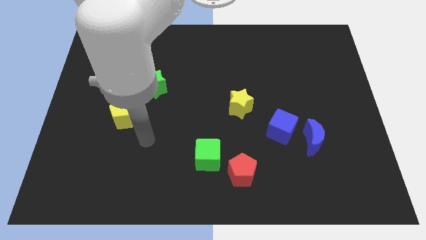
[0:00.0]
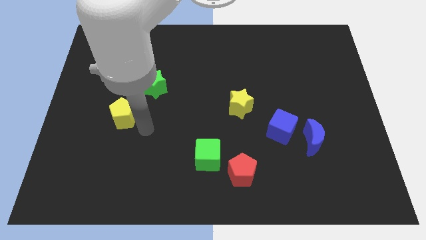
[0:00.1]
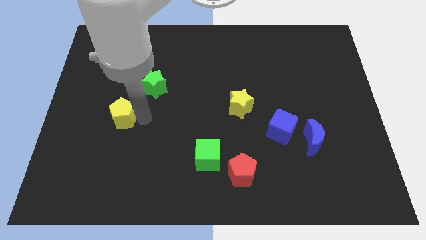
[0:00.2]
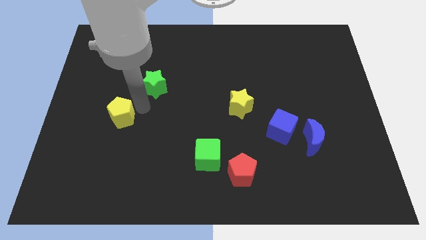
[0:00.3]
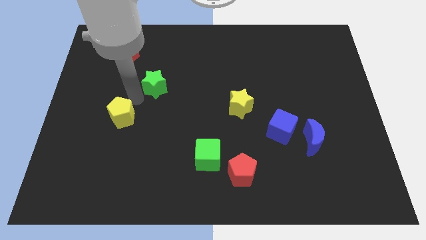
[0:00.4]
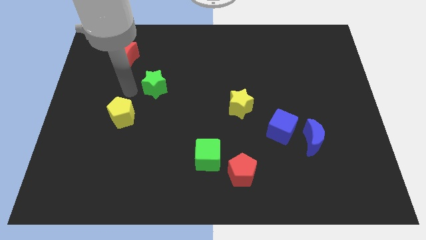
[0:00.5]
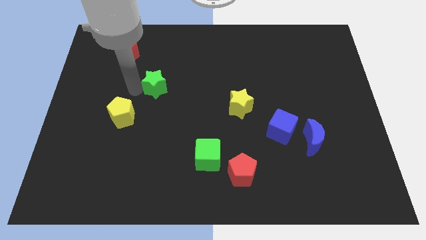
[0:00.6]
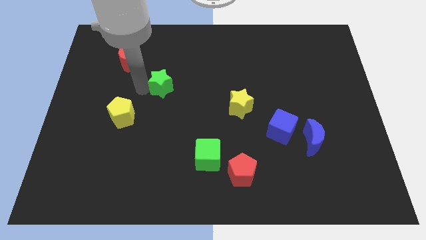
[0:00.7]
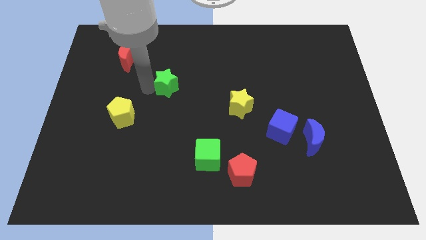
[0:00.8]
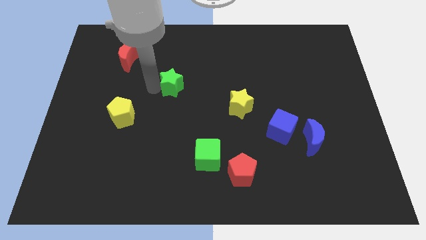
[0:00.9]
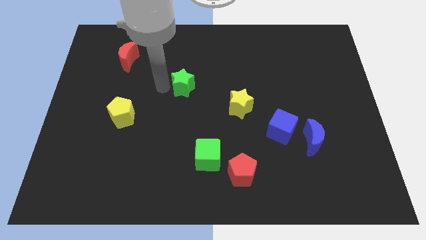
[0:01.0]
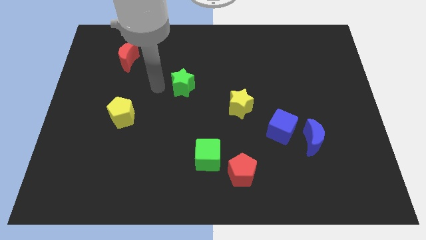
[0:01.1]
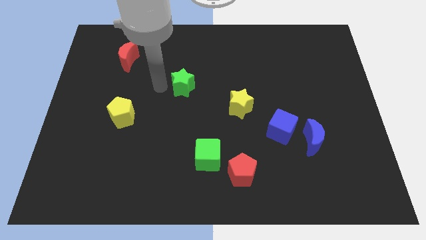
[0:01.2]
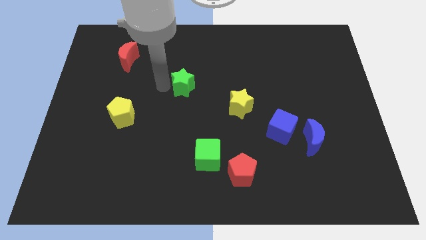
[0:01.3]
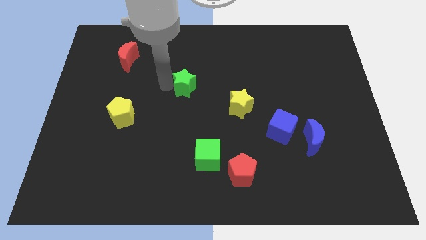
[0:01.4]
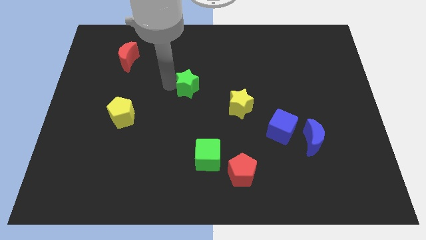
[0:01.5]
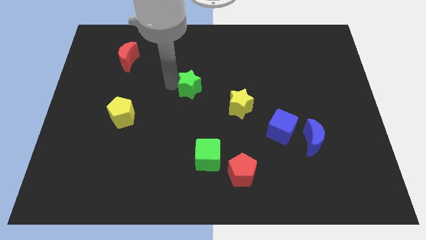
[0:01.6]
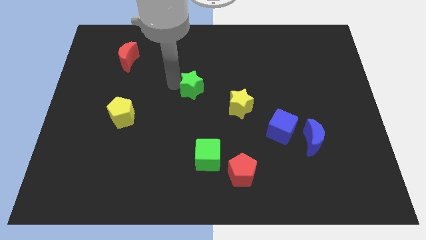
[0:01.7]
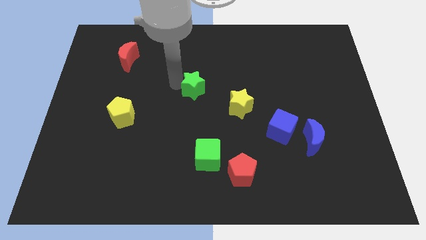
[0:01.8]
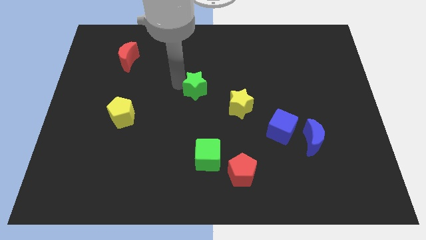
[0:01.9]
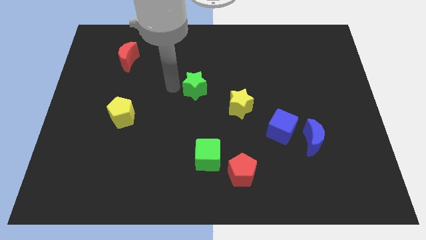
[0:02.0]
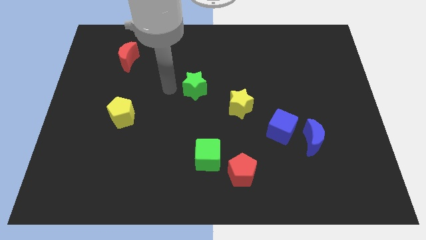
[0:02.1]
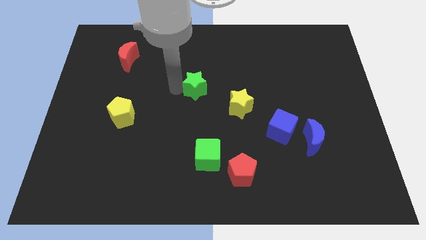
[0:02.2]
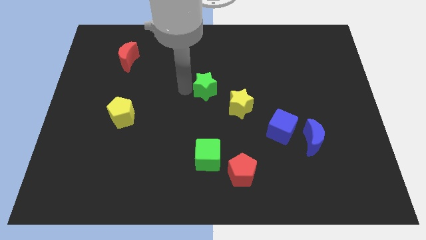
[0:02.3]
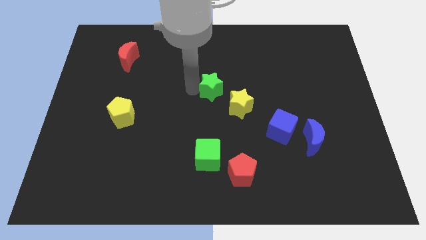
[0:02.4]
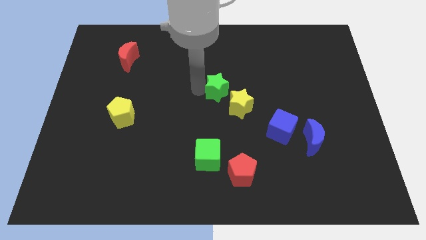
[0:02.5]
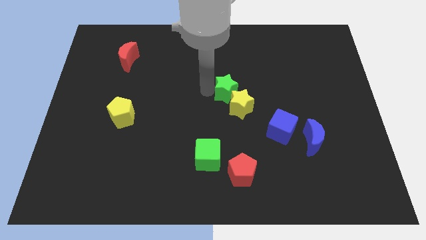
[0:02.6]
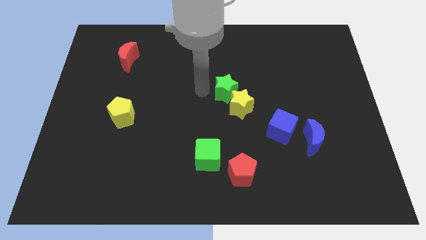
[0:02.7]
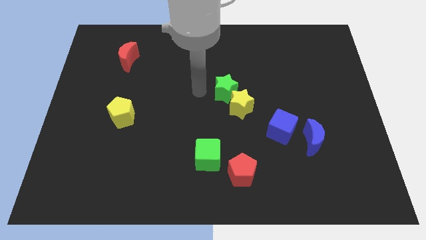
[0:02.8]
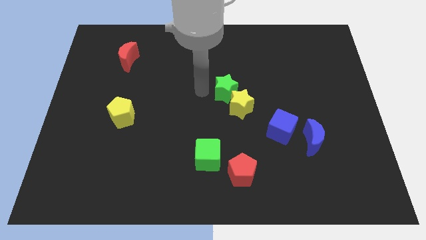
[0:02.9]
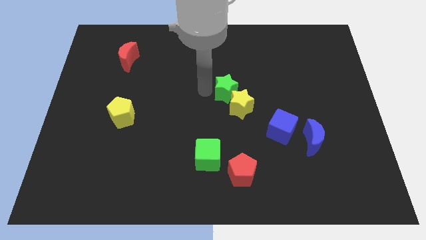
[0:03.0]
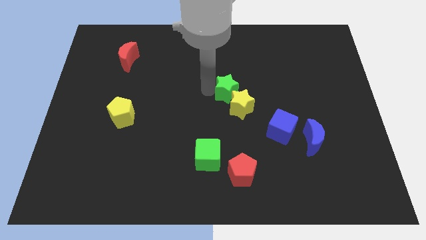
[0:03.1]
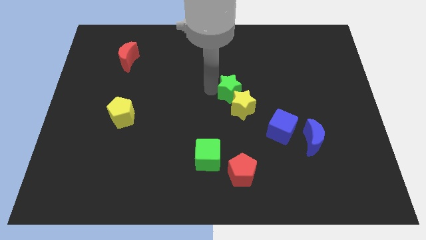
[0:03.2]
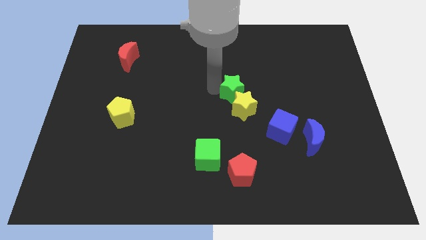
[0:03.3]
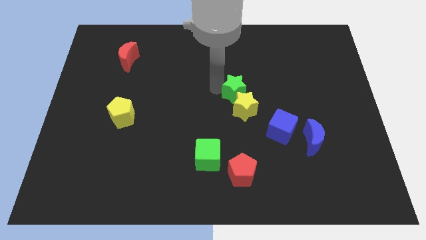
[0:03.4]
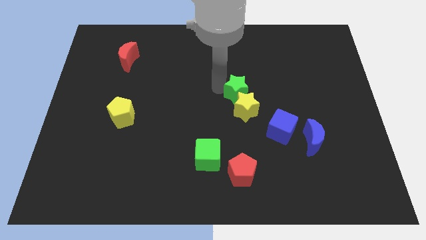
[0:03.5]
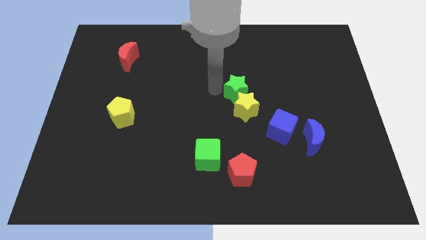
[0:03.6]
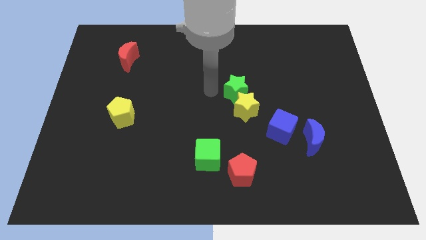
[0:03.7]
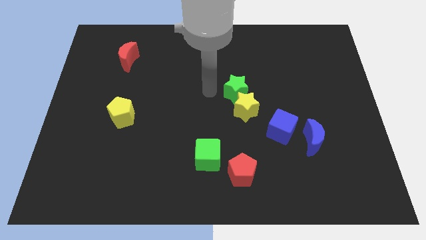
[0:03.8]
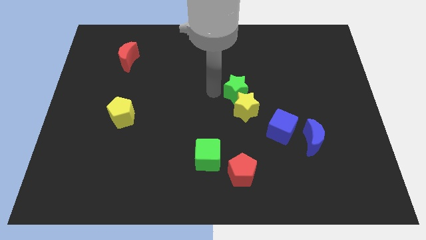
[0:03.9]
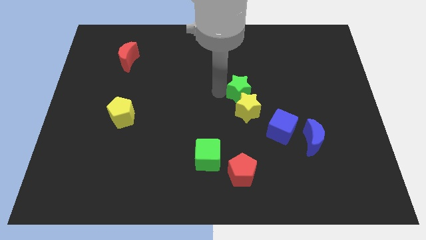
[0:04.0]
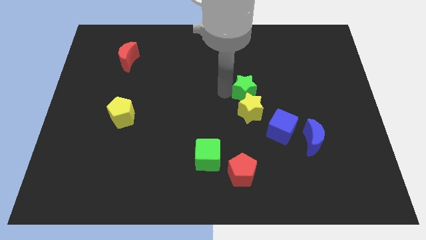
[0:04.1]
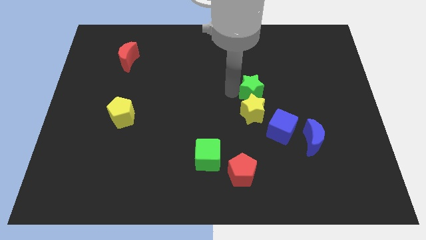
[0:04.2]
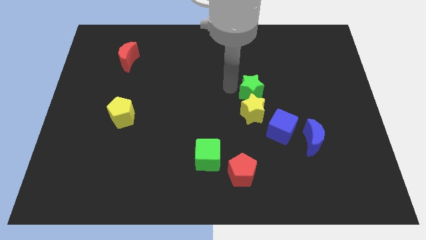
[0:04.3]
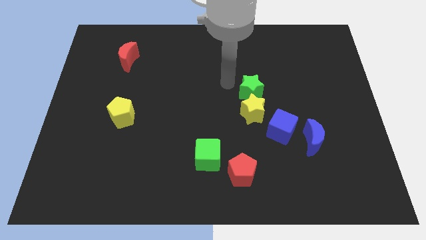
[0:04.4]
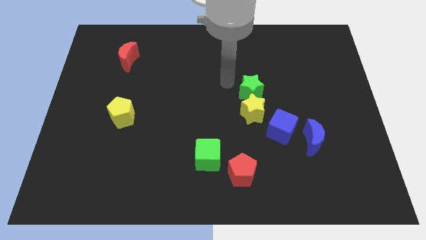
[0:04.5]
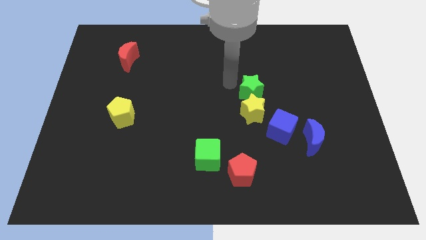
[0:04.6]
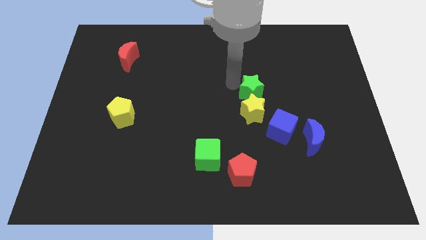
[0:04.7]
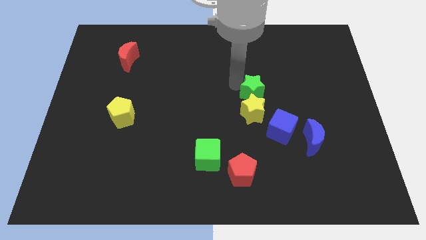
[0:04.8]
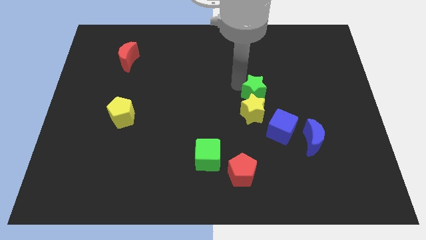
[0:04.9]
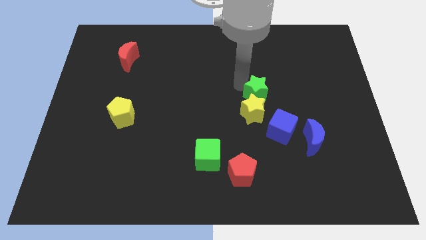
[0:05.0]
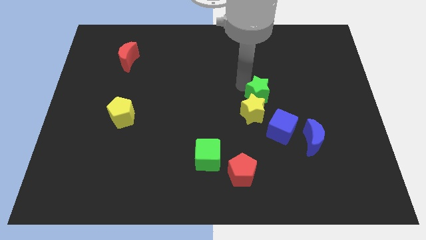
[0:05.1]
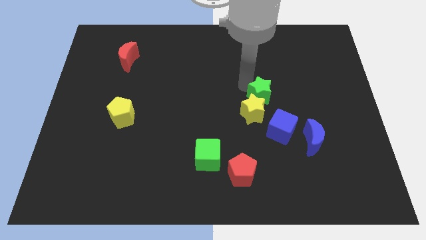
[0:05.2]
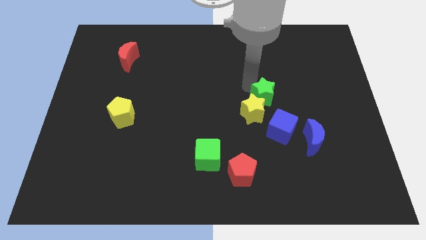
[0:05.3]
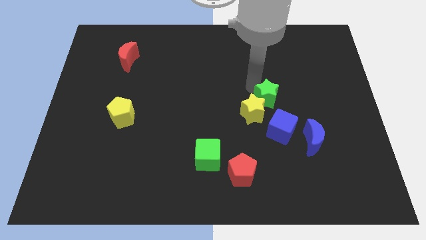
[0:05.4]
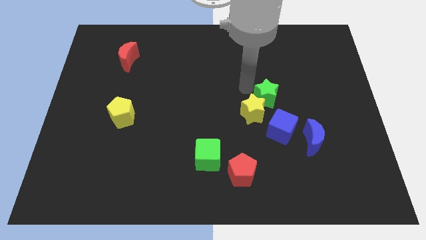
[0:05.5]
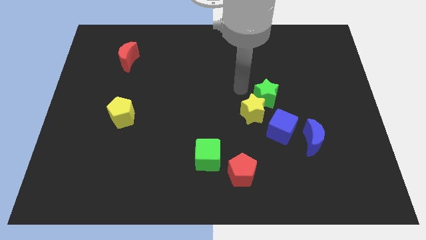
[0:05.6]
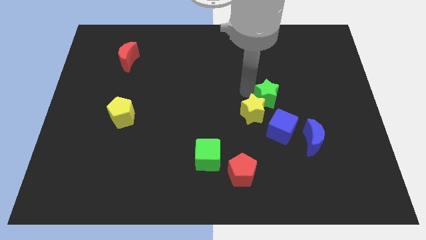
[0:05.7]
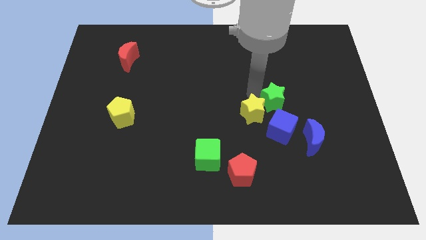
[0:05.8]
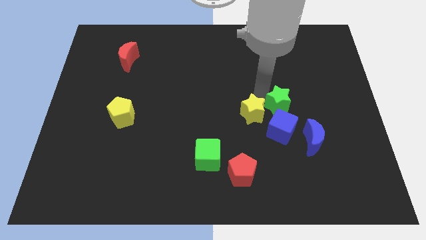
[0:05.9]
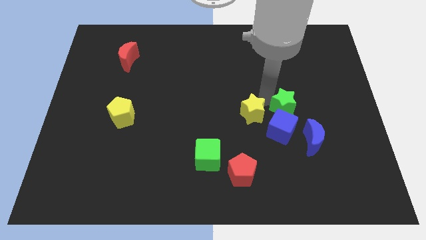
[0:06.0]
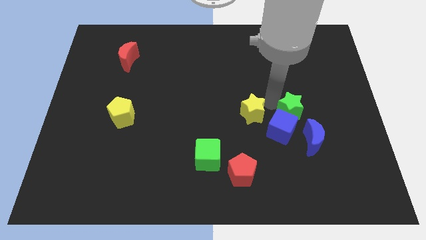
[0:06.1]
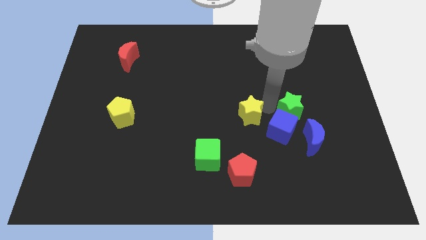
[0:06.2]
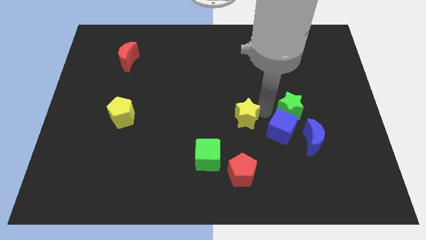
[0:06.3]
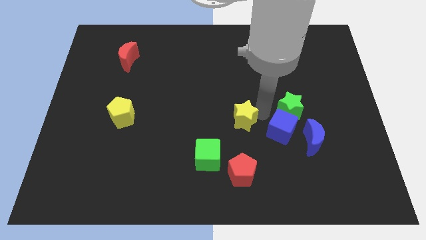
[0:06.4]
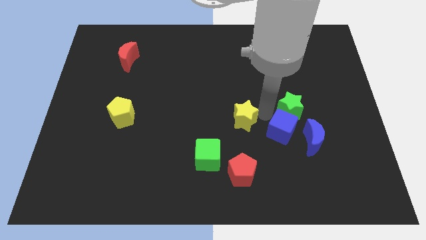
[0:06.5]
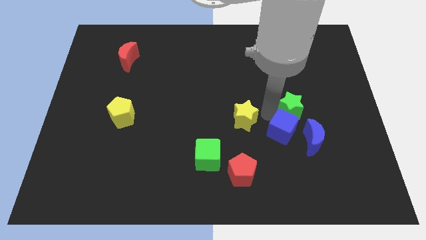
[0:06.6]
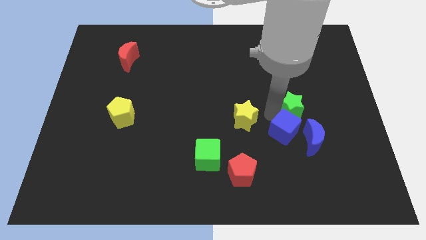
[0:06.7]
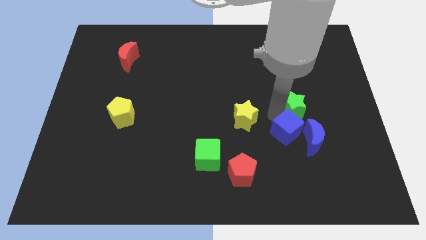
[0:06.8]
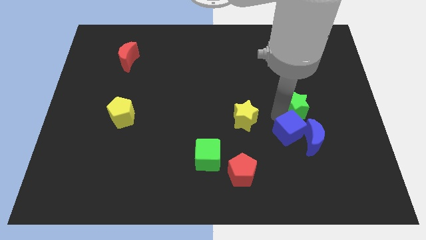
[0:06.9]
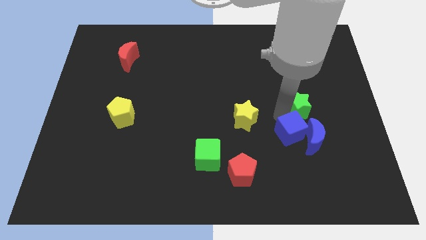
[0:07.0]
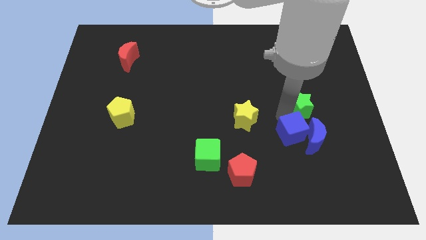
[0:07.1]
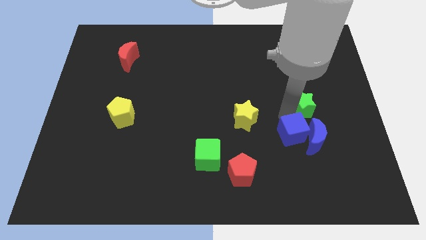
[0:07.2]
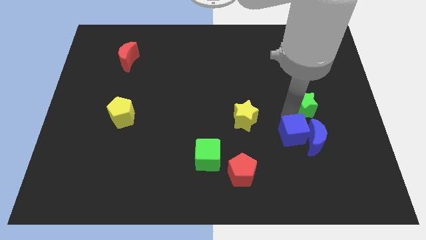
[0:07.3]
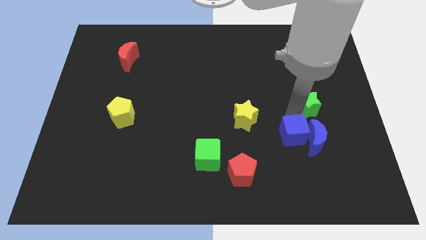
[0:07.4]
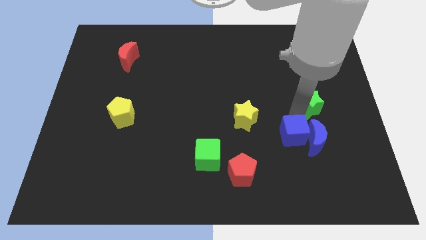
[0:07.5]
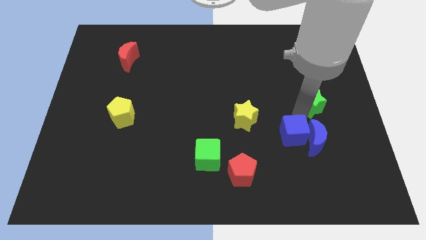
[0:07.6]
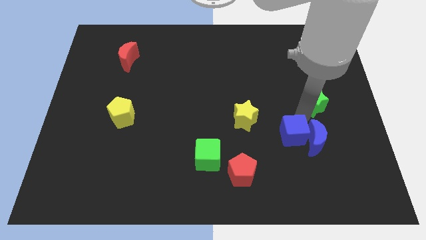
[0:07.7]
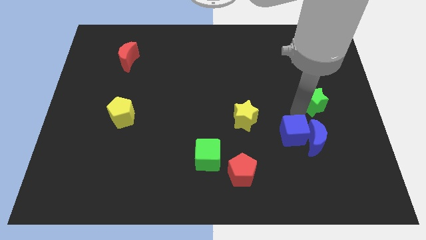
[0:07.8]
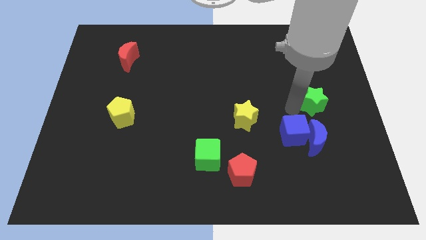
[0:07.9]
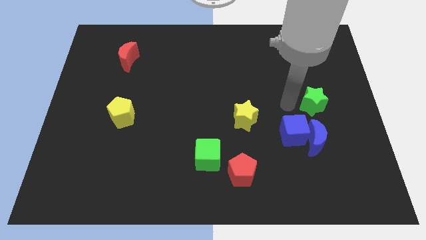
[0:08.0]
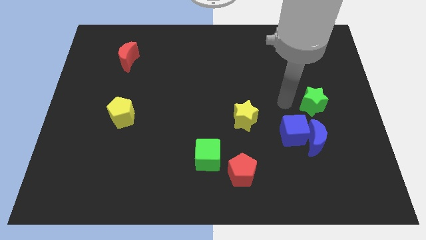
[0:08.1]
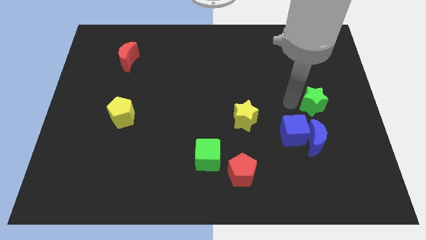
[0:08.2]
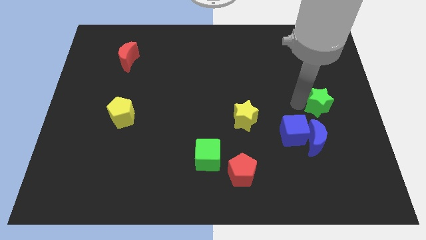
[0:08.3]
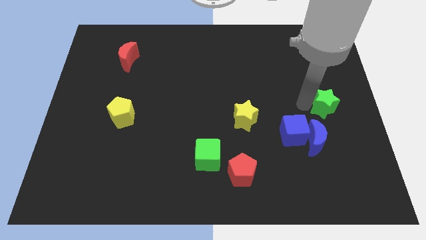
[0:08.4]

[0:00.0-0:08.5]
slide the green star to the right side
